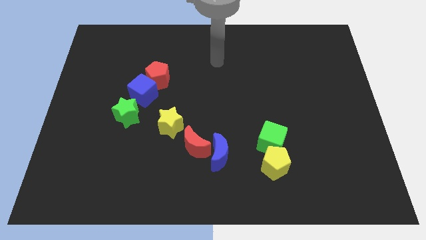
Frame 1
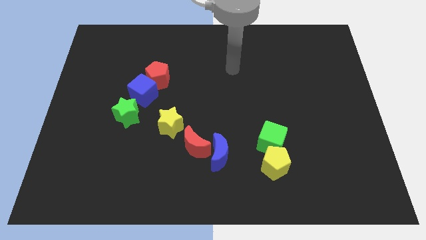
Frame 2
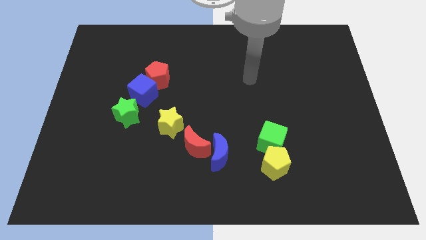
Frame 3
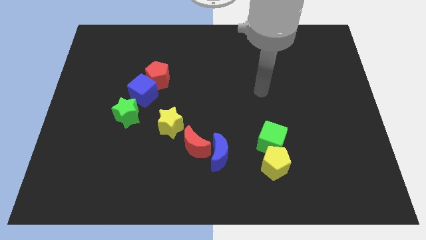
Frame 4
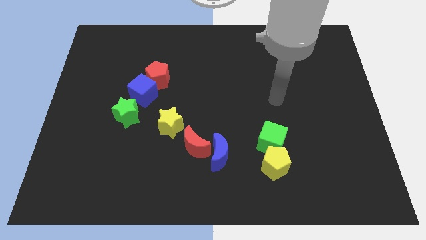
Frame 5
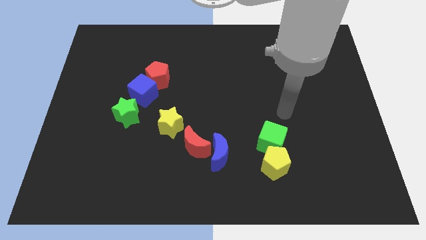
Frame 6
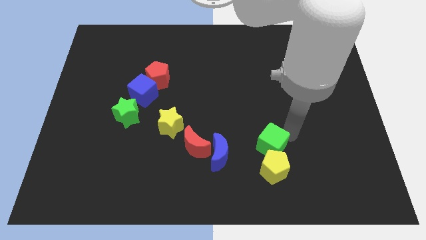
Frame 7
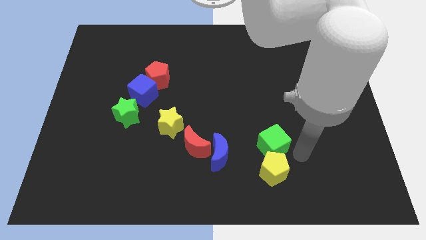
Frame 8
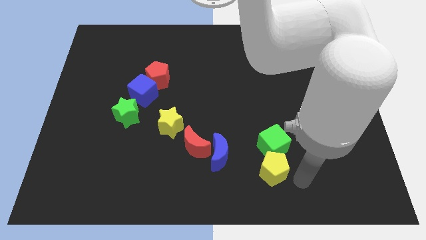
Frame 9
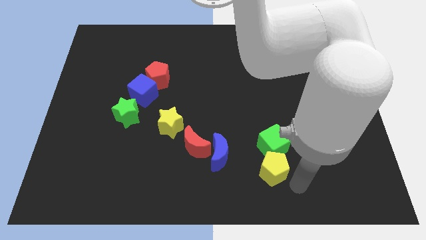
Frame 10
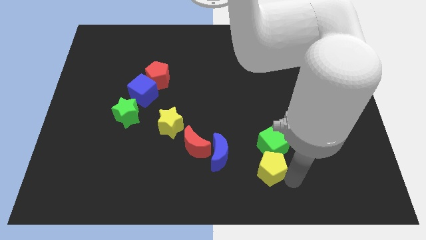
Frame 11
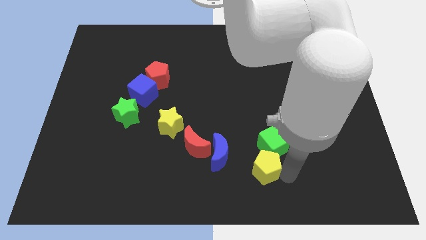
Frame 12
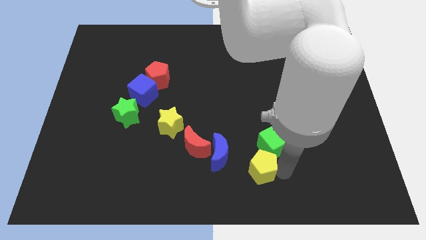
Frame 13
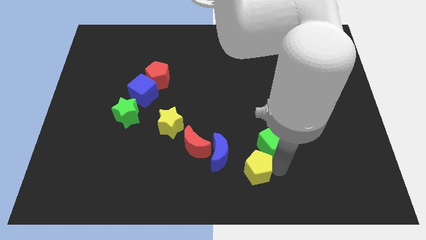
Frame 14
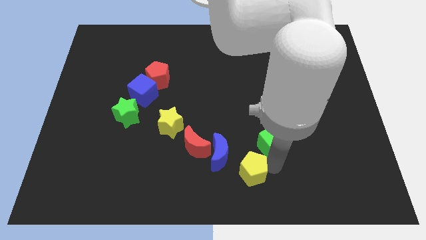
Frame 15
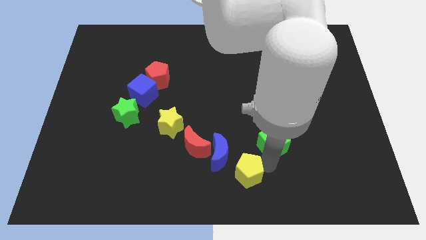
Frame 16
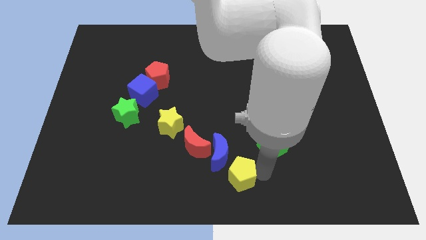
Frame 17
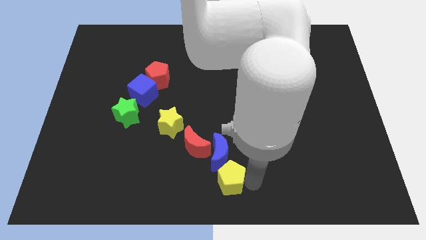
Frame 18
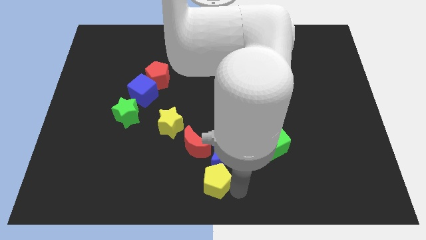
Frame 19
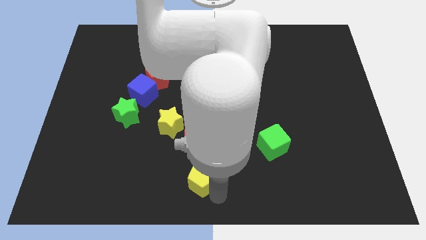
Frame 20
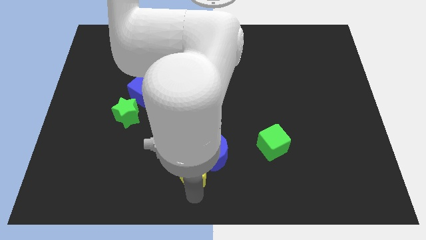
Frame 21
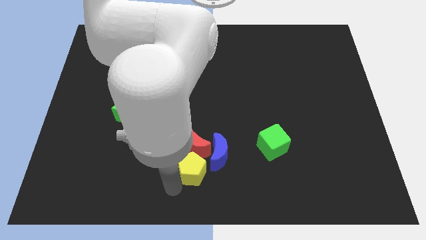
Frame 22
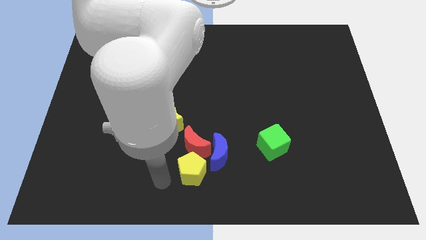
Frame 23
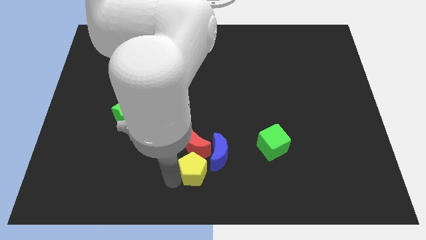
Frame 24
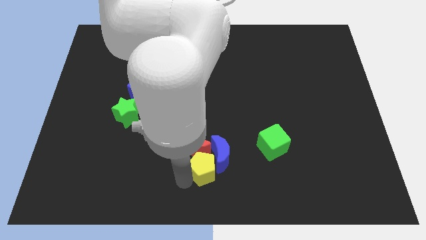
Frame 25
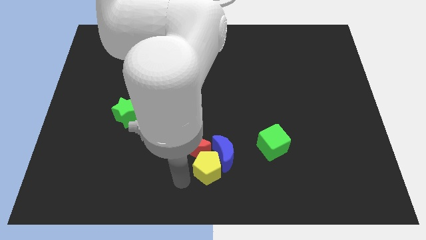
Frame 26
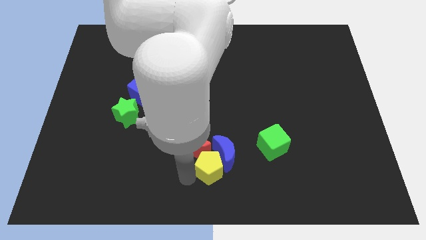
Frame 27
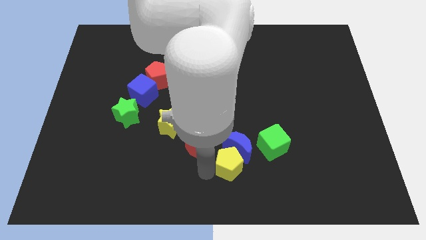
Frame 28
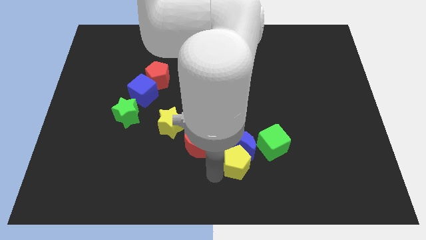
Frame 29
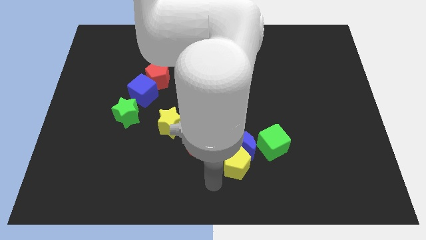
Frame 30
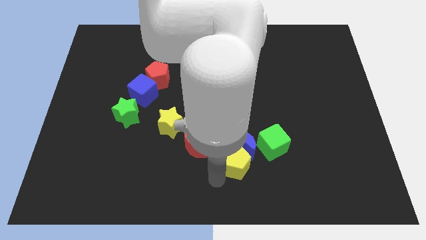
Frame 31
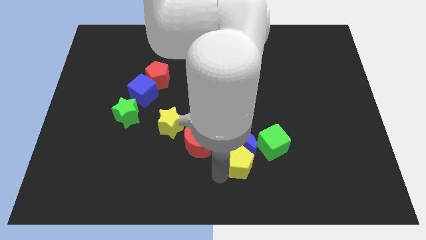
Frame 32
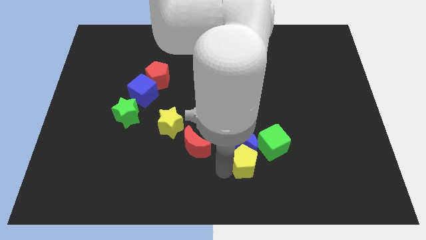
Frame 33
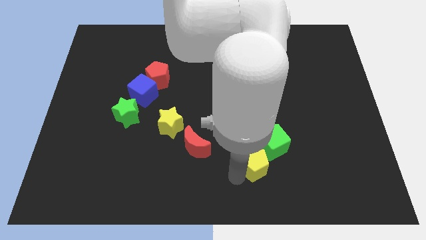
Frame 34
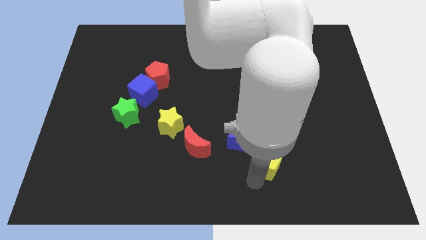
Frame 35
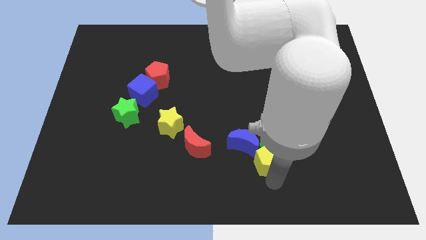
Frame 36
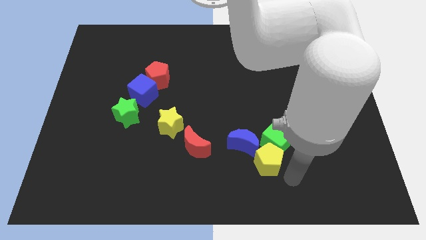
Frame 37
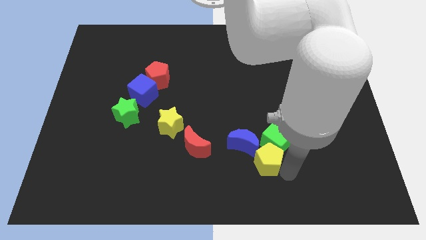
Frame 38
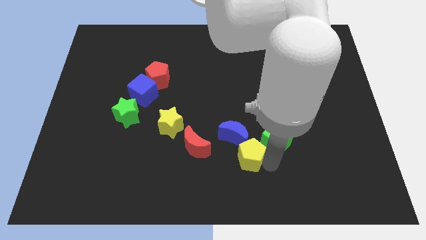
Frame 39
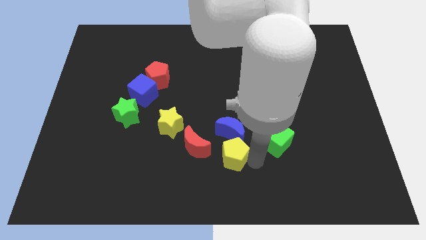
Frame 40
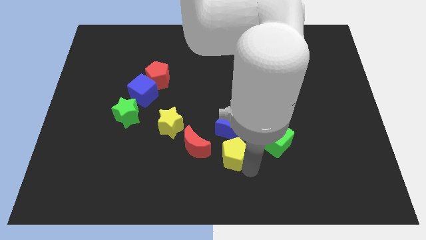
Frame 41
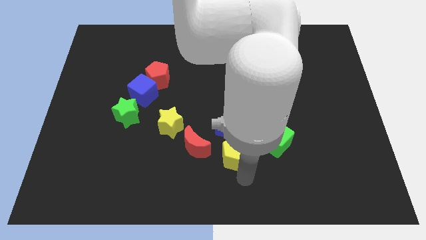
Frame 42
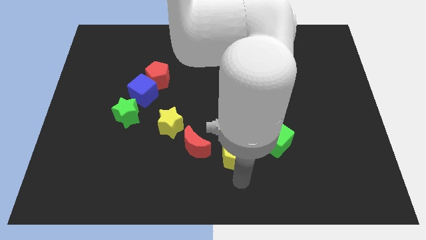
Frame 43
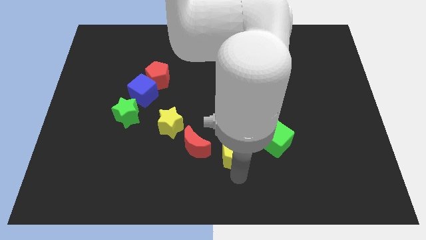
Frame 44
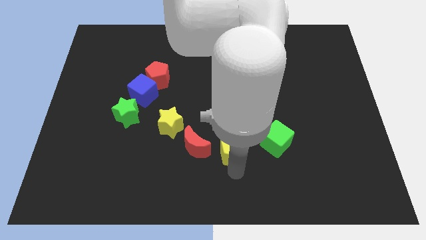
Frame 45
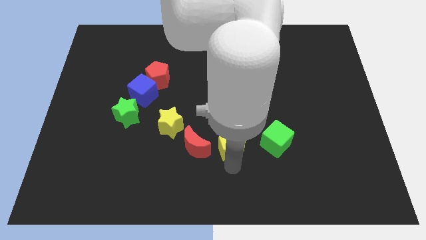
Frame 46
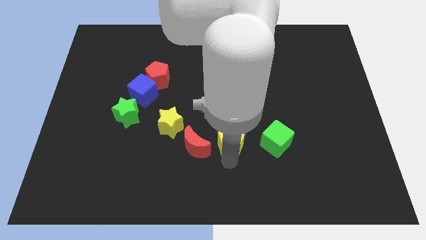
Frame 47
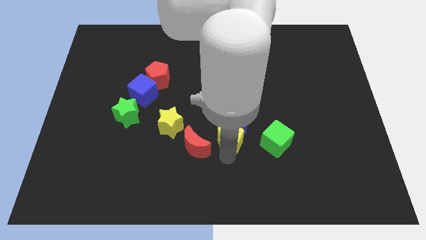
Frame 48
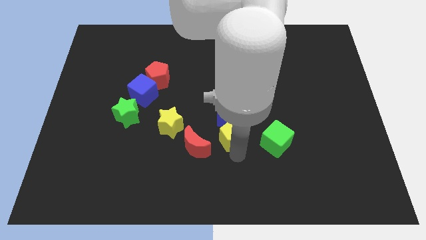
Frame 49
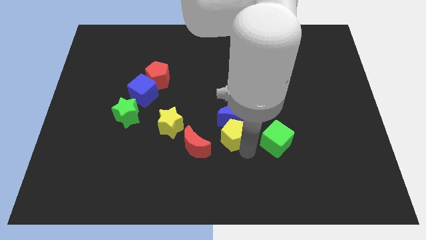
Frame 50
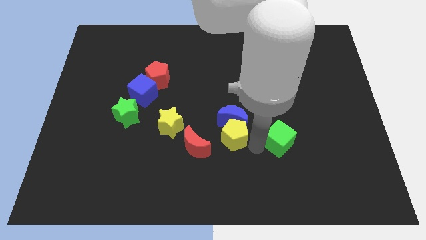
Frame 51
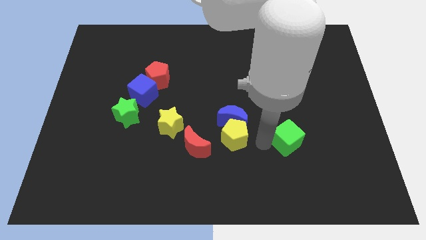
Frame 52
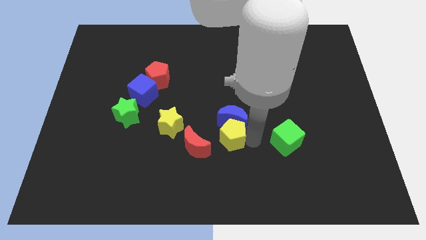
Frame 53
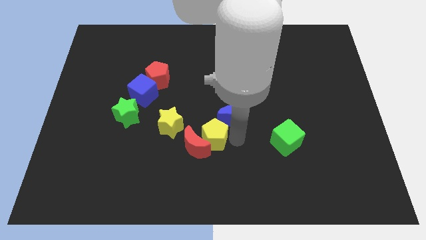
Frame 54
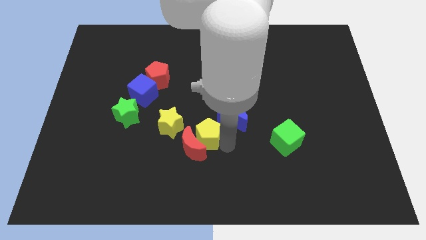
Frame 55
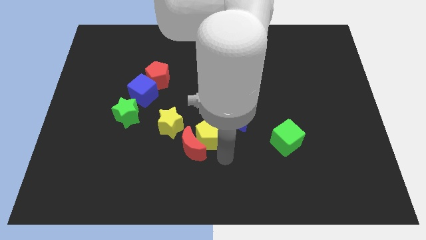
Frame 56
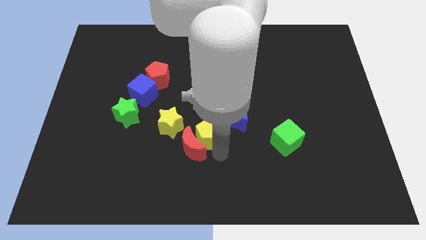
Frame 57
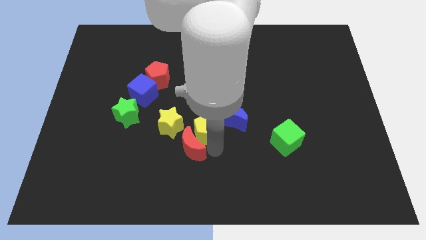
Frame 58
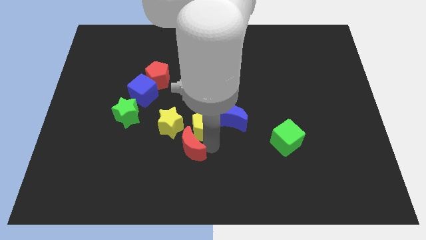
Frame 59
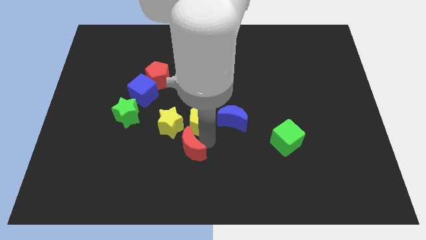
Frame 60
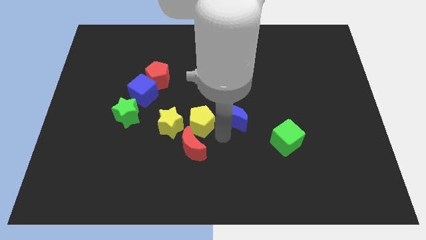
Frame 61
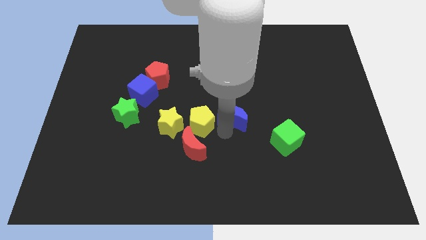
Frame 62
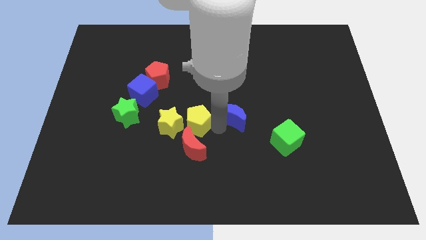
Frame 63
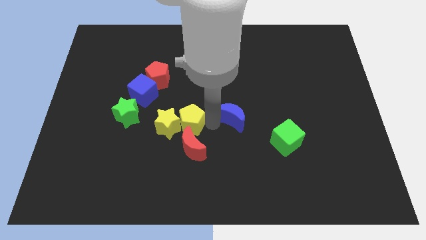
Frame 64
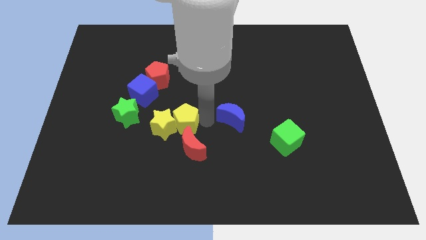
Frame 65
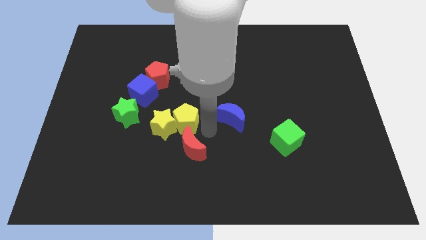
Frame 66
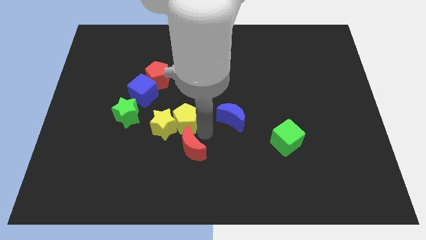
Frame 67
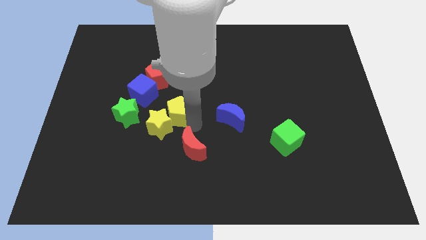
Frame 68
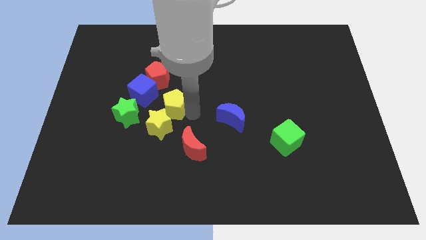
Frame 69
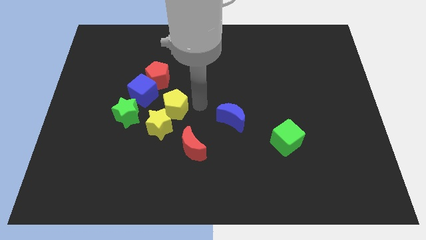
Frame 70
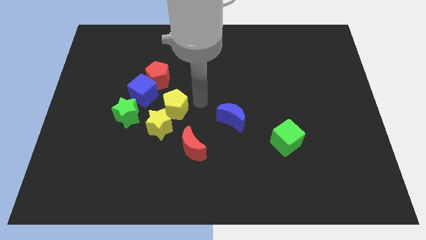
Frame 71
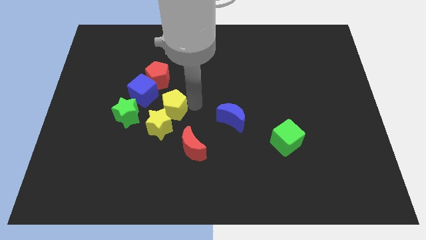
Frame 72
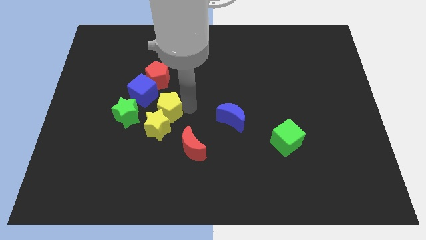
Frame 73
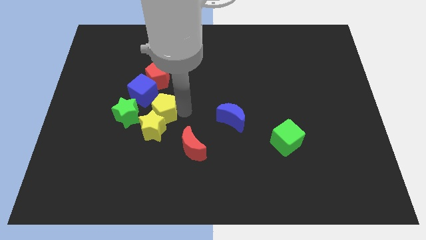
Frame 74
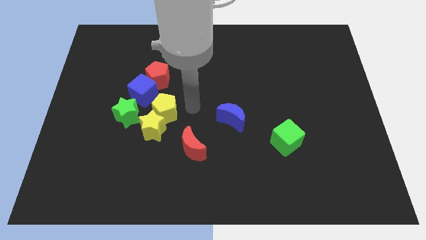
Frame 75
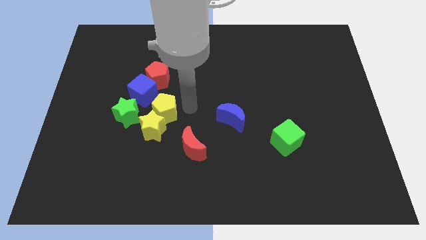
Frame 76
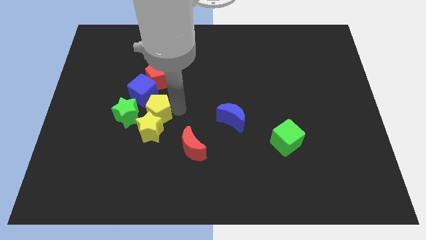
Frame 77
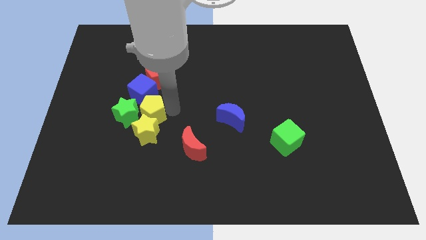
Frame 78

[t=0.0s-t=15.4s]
move the yellow pentagon close to the green star
